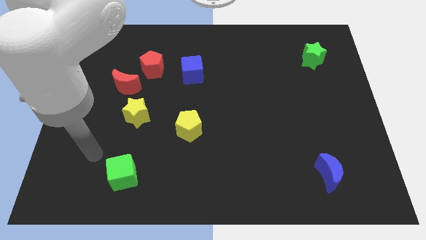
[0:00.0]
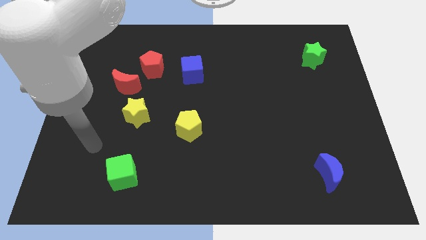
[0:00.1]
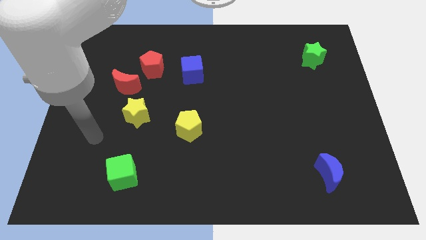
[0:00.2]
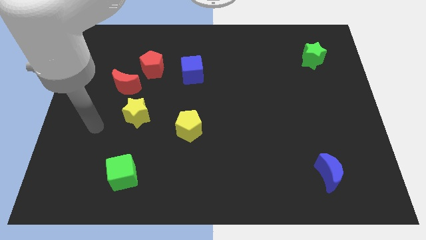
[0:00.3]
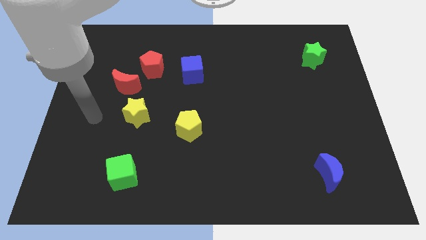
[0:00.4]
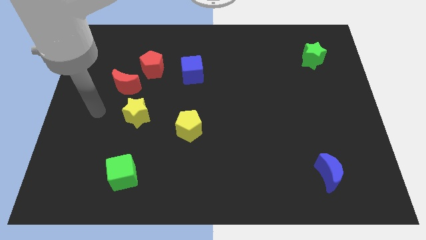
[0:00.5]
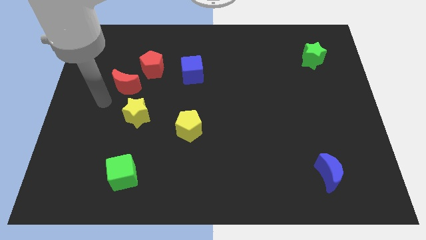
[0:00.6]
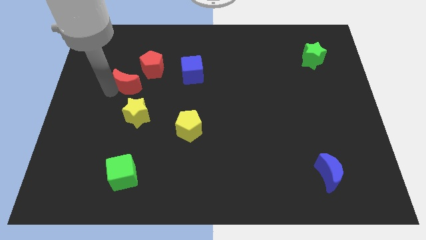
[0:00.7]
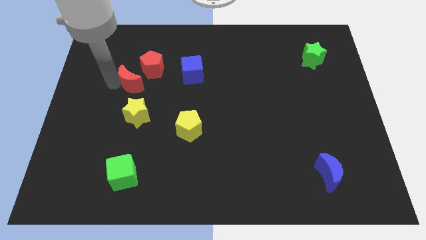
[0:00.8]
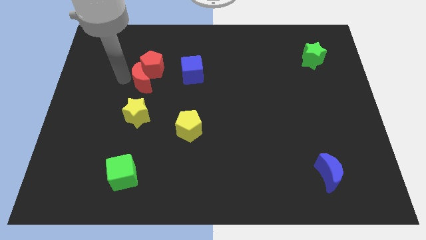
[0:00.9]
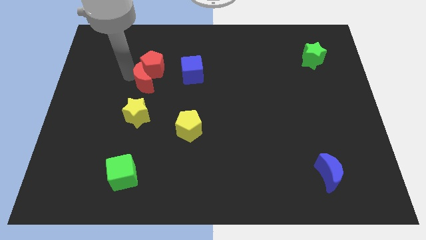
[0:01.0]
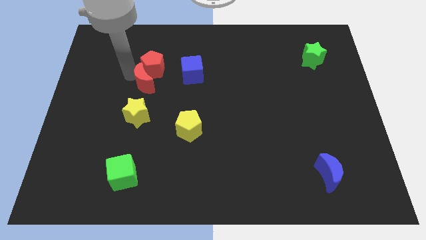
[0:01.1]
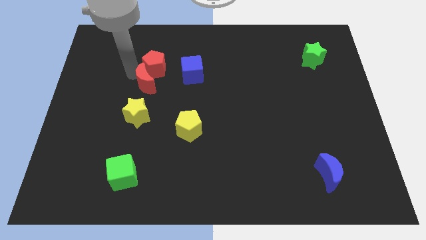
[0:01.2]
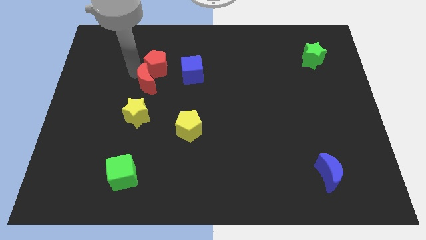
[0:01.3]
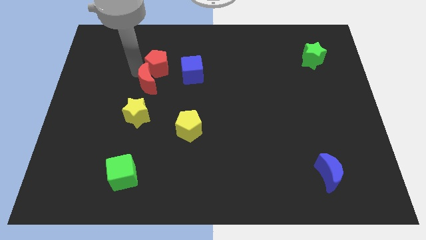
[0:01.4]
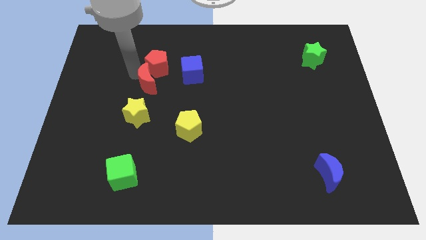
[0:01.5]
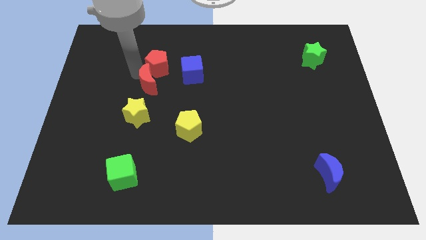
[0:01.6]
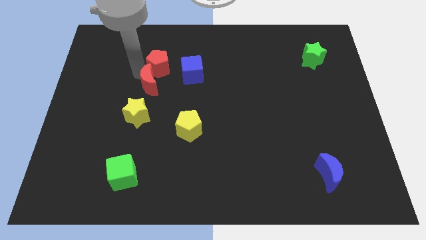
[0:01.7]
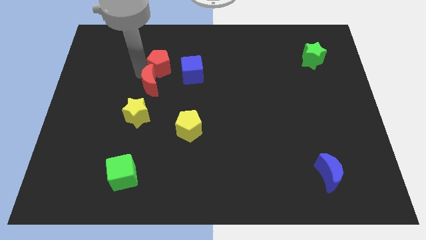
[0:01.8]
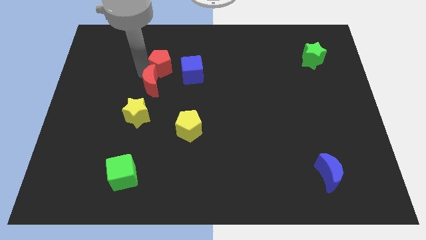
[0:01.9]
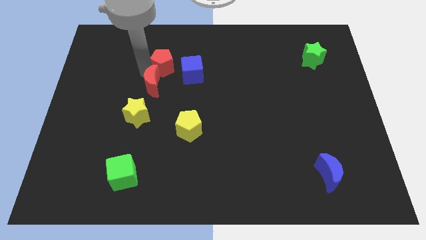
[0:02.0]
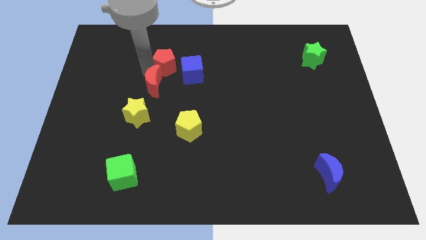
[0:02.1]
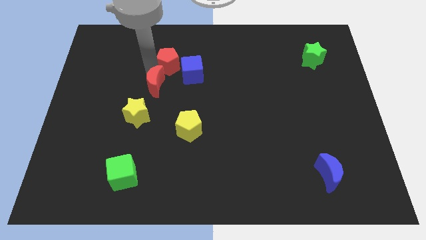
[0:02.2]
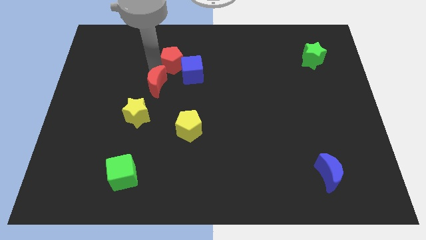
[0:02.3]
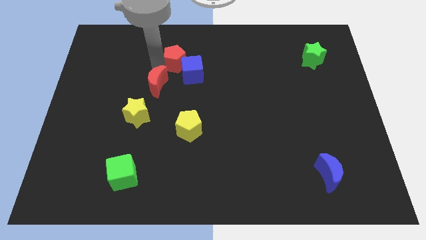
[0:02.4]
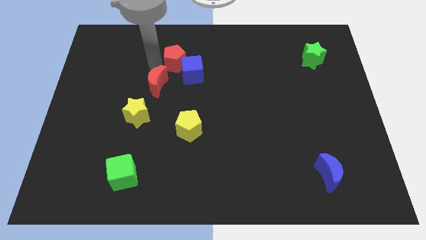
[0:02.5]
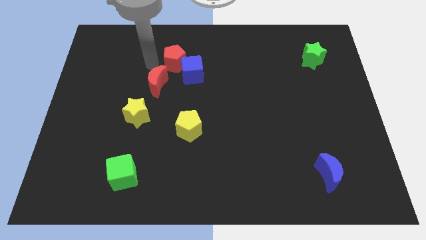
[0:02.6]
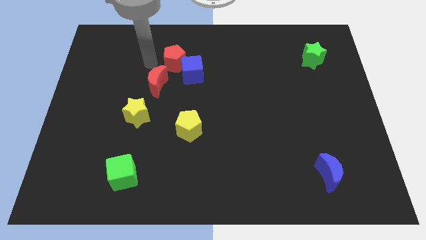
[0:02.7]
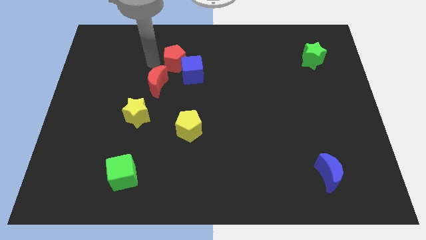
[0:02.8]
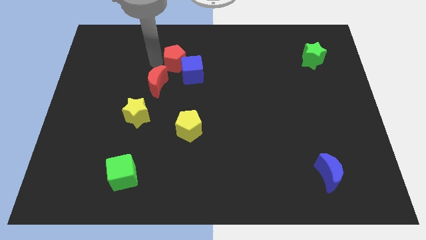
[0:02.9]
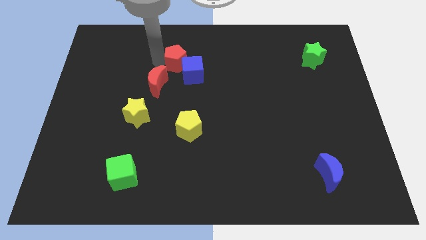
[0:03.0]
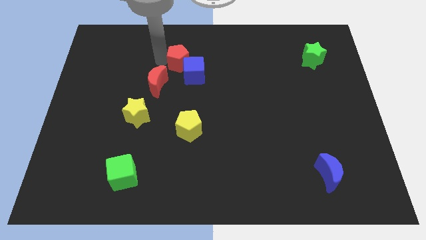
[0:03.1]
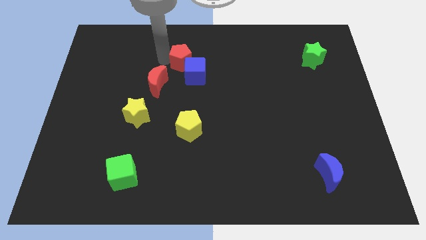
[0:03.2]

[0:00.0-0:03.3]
move the red pentagon to the right a little bit

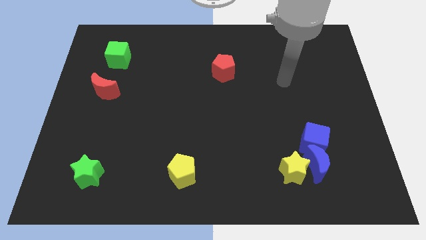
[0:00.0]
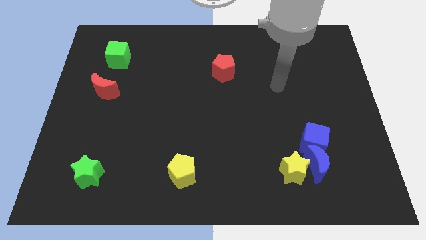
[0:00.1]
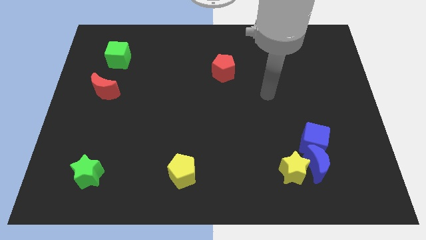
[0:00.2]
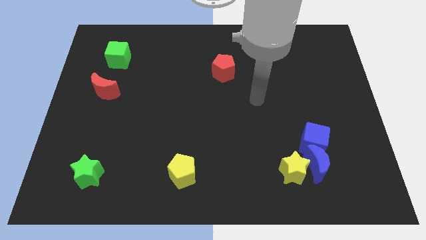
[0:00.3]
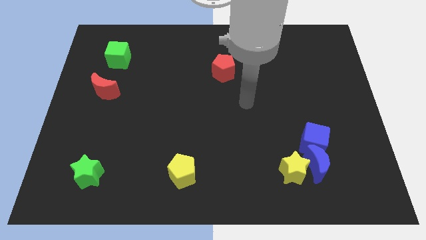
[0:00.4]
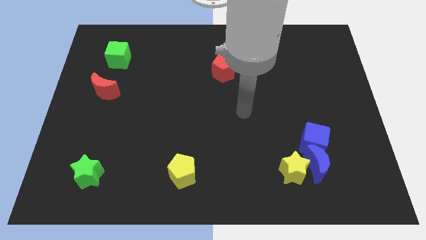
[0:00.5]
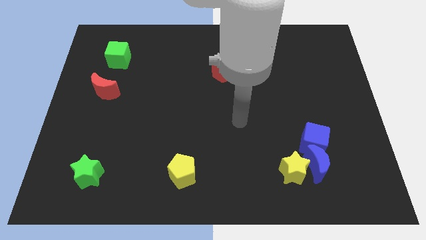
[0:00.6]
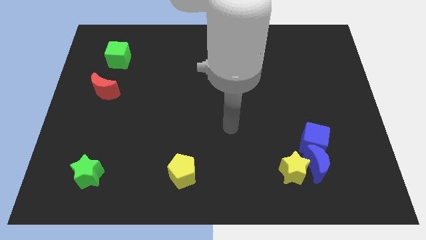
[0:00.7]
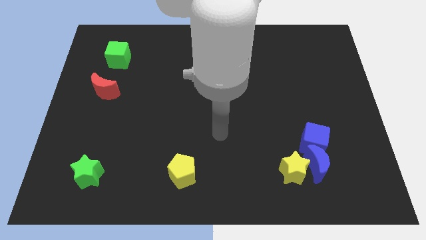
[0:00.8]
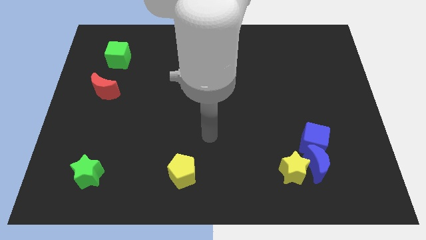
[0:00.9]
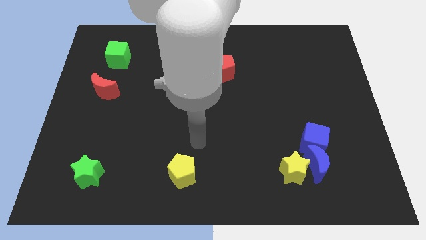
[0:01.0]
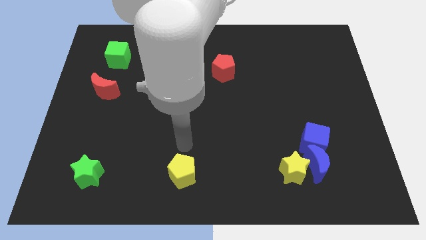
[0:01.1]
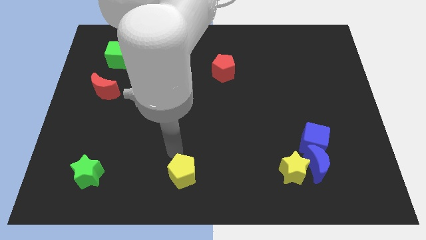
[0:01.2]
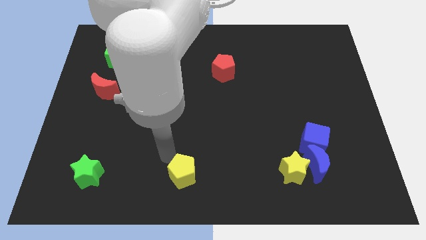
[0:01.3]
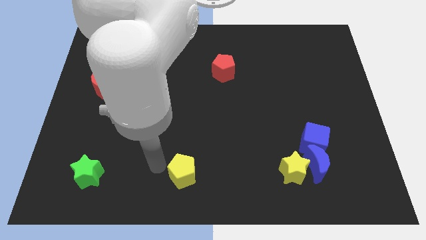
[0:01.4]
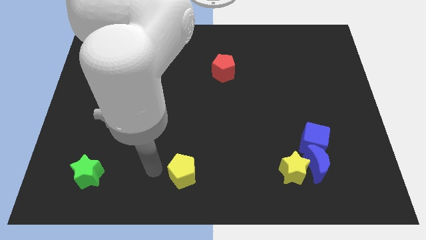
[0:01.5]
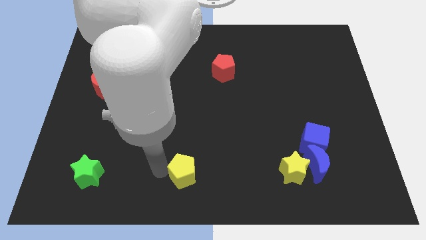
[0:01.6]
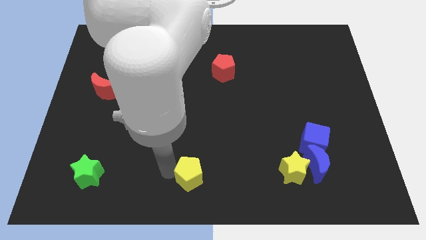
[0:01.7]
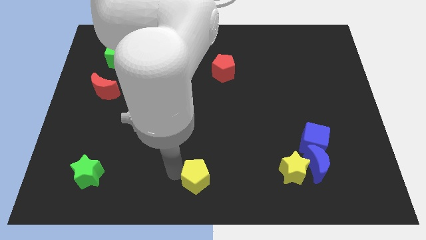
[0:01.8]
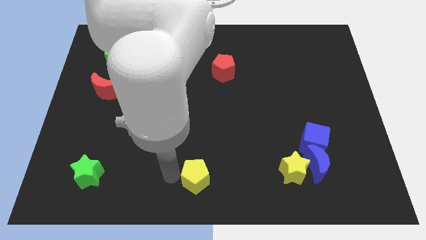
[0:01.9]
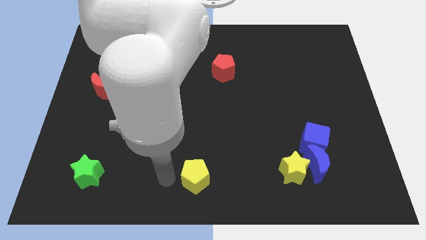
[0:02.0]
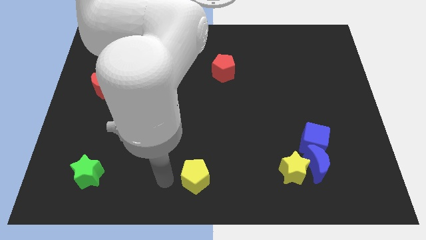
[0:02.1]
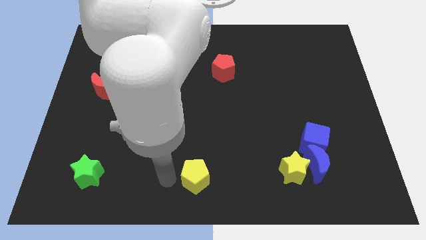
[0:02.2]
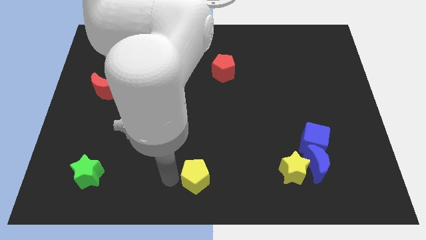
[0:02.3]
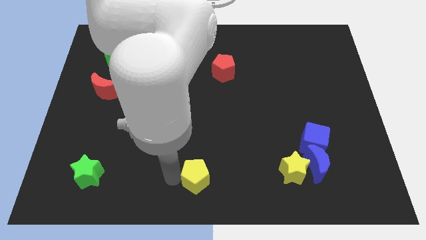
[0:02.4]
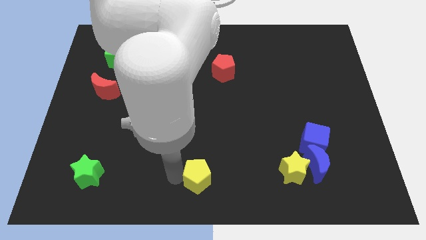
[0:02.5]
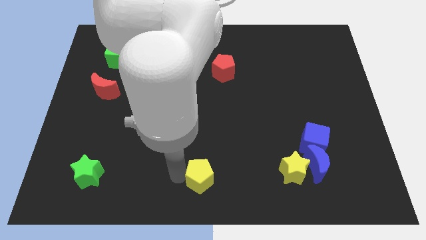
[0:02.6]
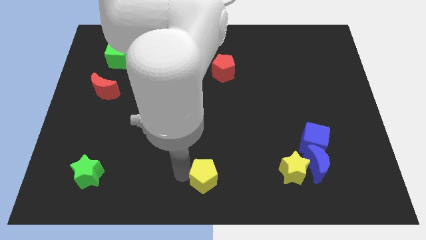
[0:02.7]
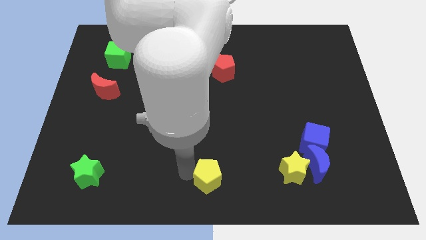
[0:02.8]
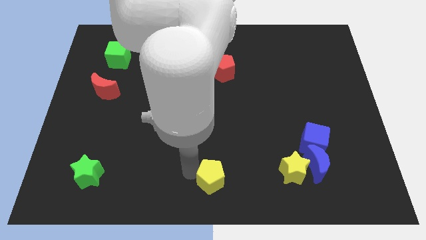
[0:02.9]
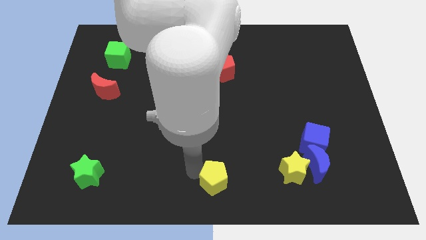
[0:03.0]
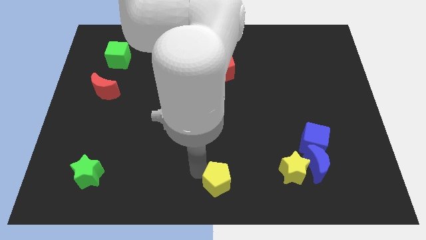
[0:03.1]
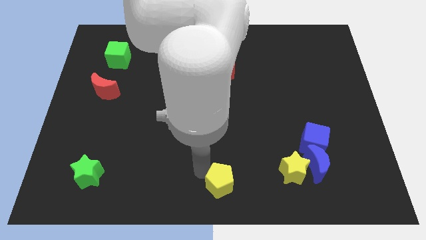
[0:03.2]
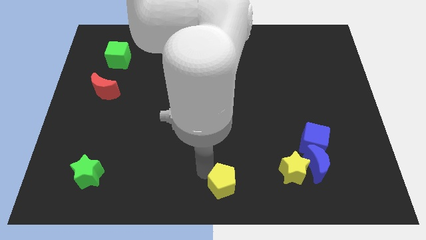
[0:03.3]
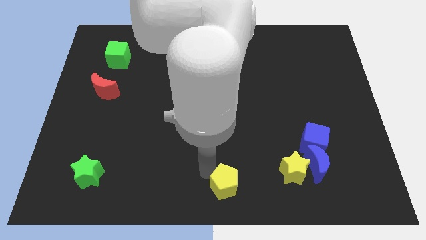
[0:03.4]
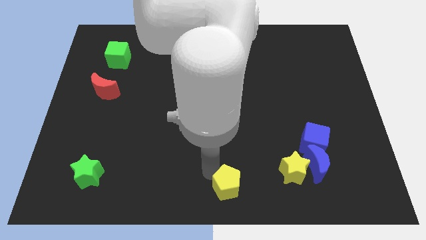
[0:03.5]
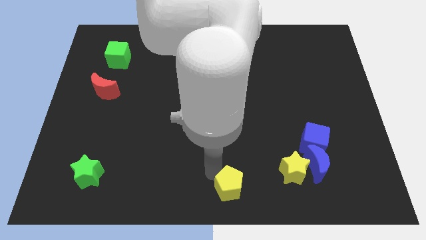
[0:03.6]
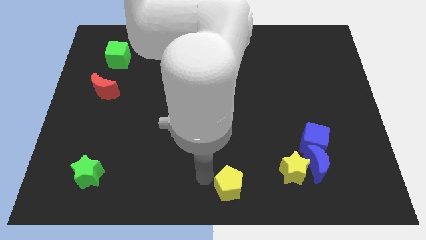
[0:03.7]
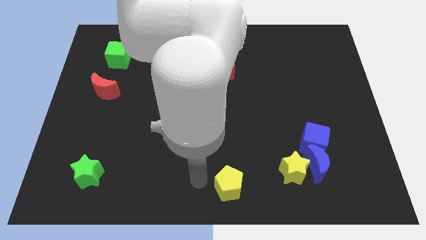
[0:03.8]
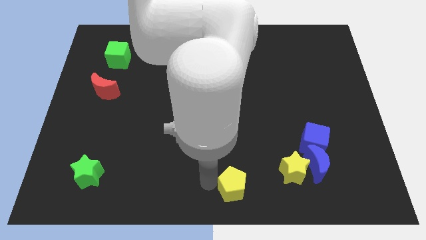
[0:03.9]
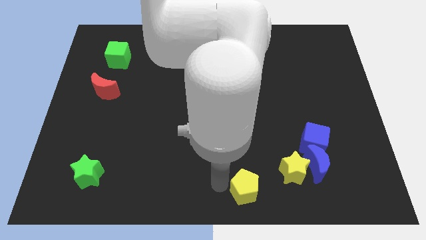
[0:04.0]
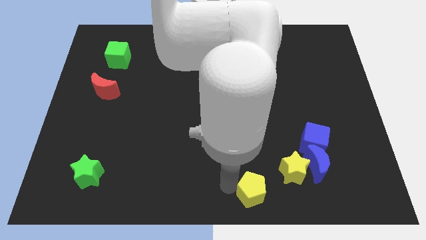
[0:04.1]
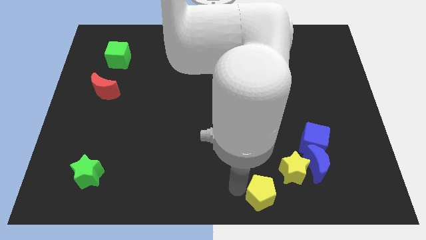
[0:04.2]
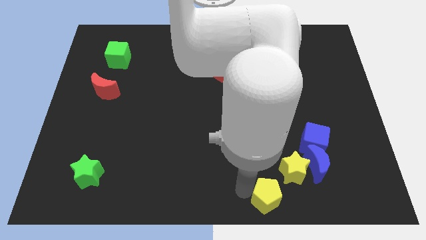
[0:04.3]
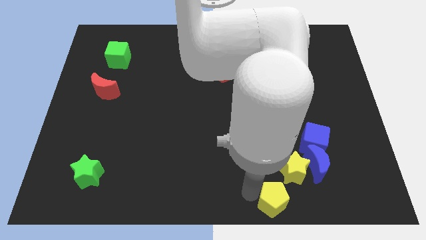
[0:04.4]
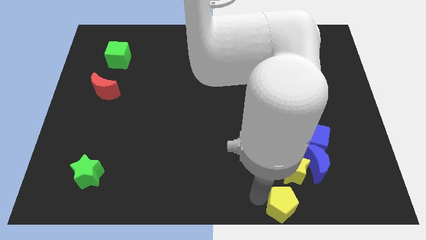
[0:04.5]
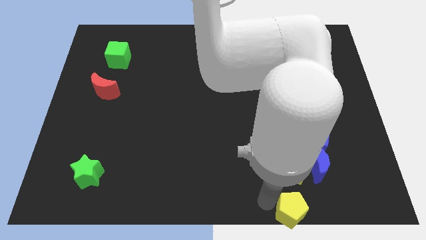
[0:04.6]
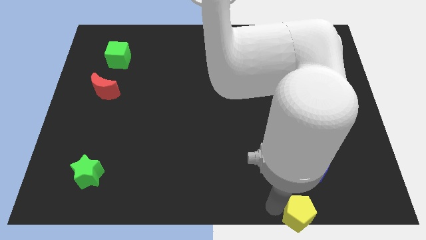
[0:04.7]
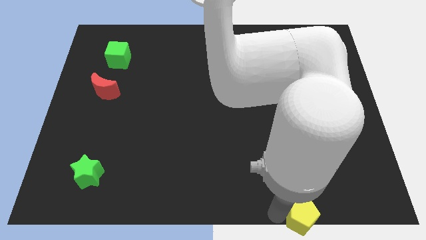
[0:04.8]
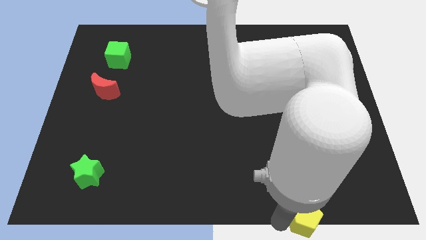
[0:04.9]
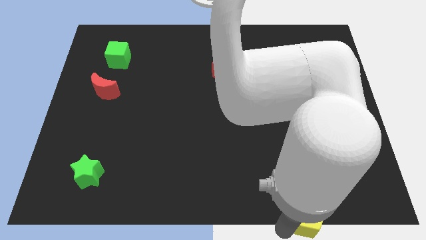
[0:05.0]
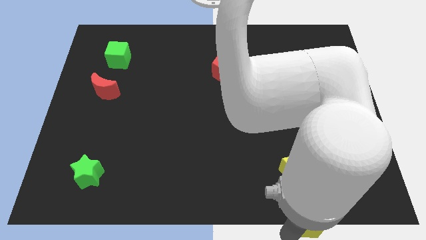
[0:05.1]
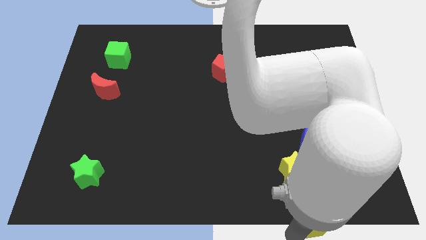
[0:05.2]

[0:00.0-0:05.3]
push the yellow pentagon right
